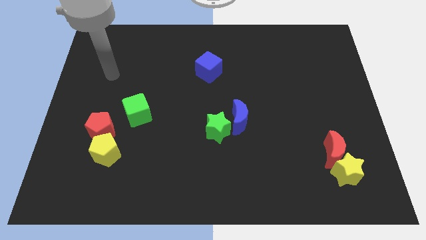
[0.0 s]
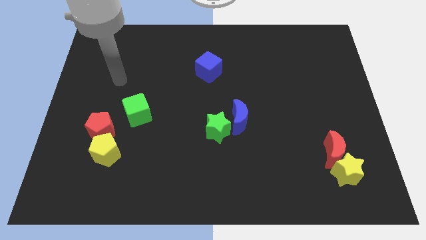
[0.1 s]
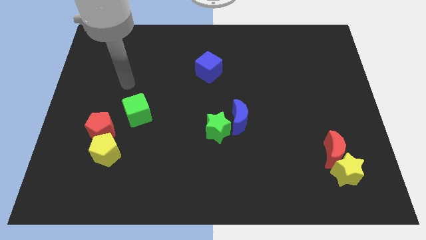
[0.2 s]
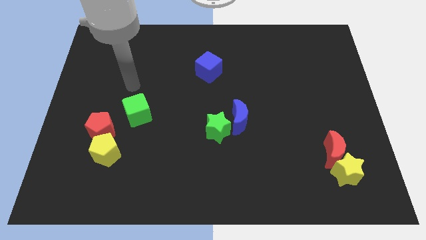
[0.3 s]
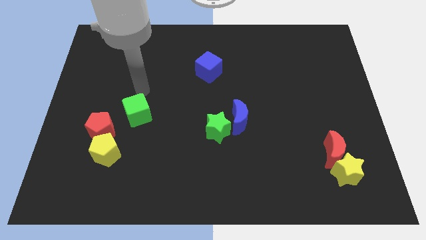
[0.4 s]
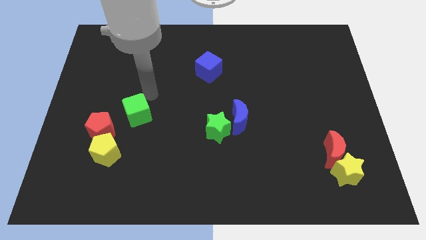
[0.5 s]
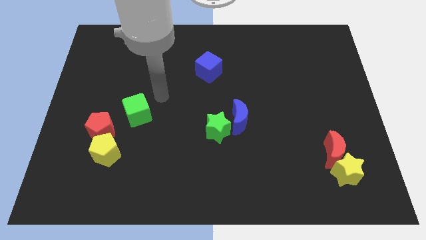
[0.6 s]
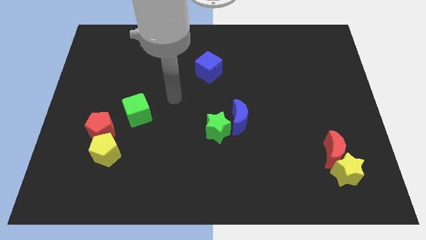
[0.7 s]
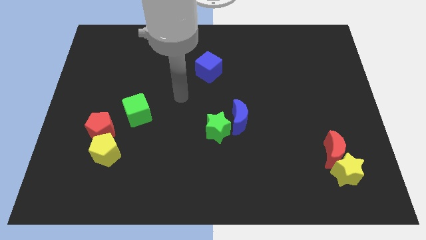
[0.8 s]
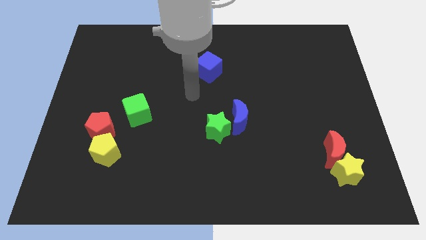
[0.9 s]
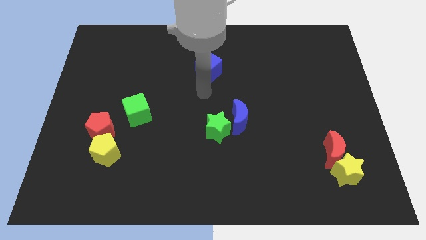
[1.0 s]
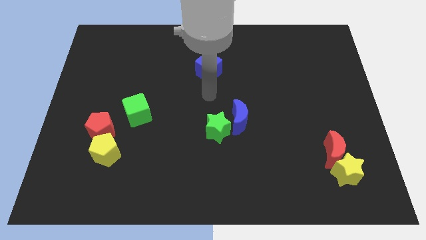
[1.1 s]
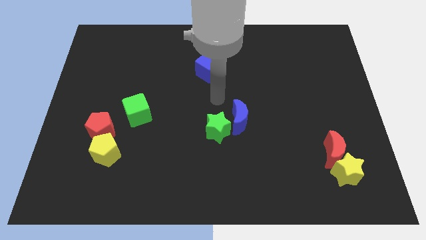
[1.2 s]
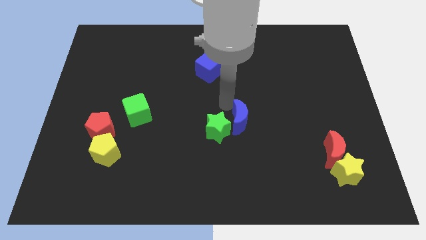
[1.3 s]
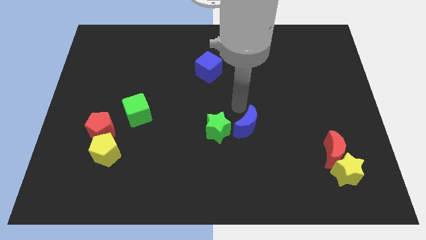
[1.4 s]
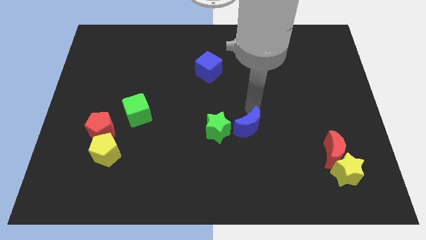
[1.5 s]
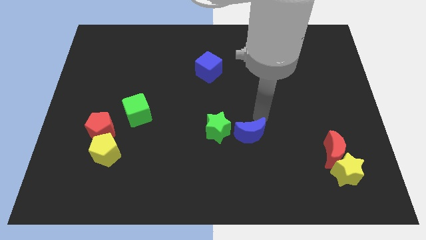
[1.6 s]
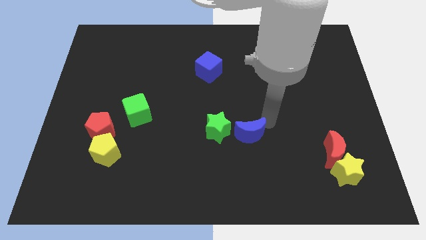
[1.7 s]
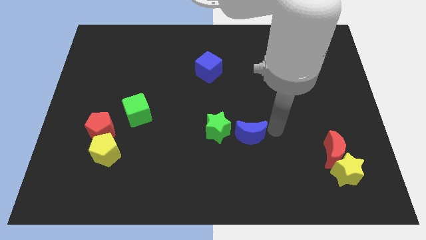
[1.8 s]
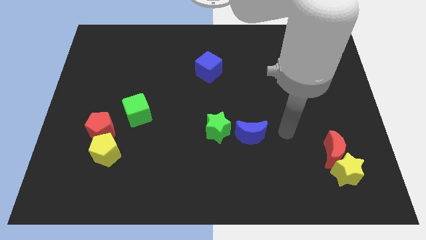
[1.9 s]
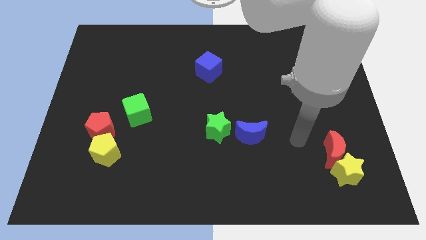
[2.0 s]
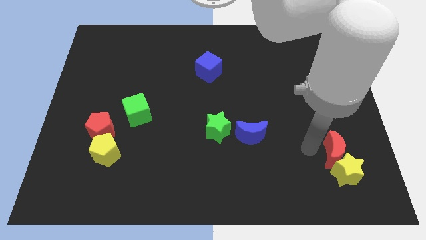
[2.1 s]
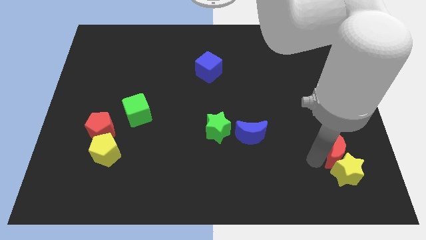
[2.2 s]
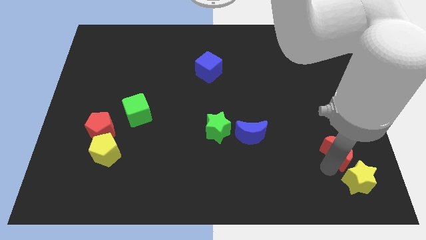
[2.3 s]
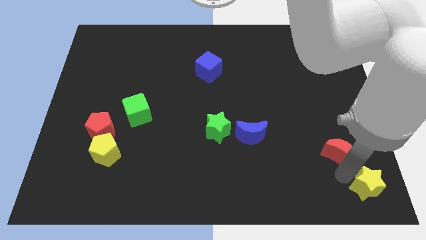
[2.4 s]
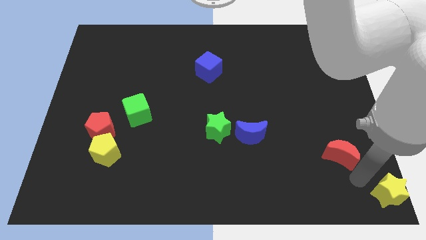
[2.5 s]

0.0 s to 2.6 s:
move the red moon away from the yellow star

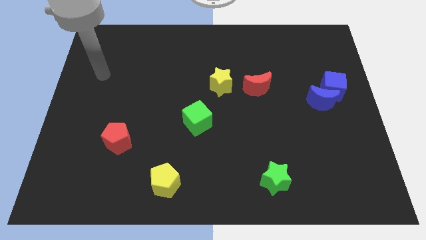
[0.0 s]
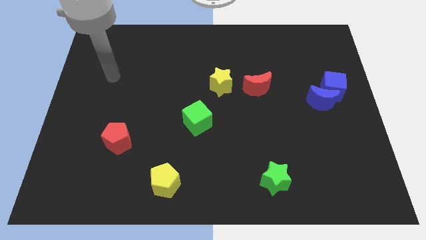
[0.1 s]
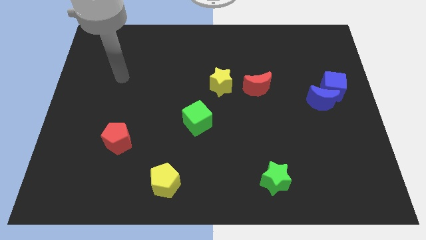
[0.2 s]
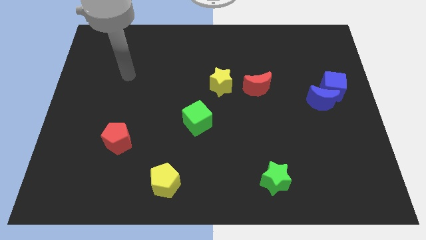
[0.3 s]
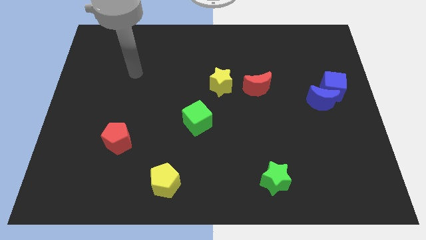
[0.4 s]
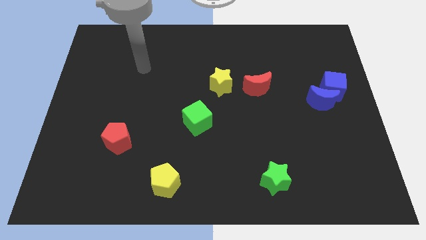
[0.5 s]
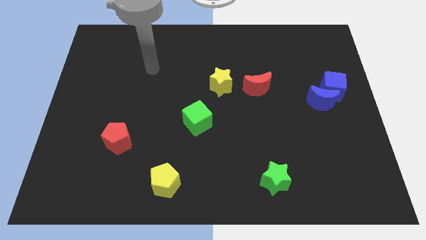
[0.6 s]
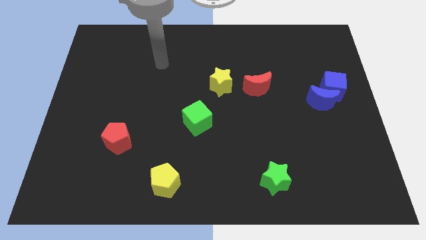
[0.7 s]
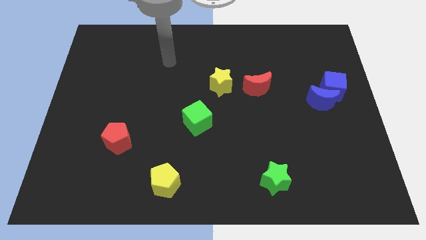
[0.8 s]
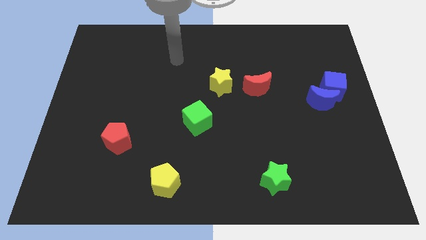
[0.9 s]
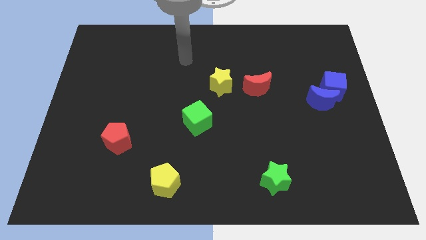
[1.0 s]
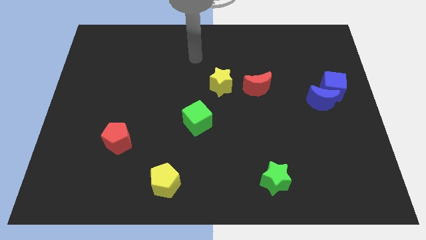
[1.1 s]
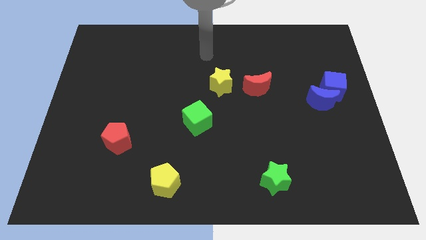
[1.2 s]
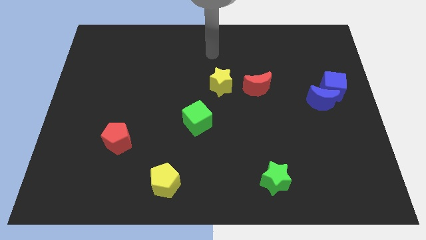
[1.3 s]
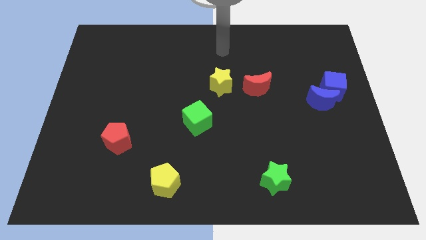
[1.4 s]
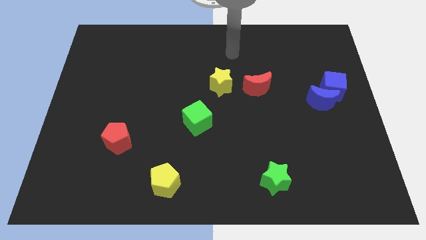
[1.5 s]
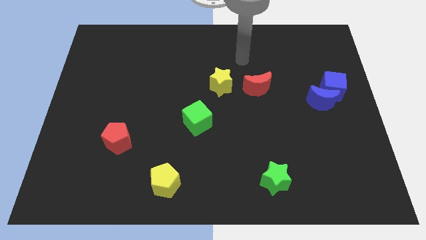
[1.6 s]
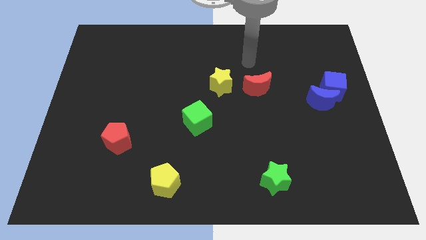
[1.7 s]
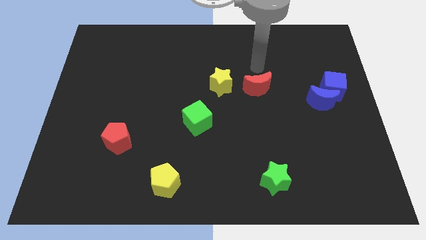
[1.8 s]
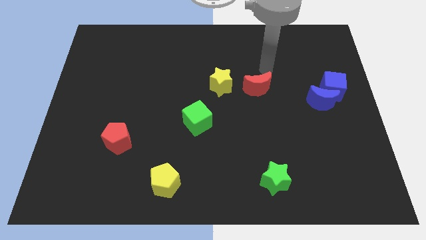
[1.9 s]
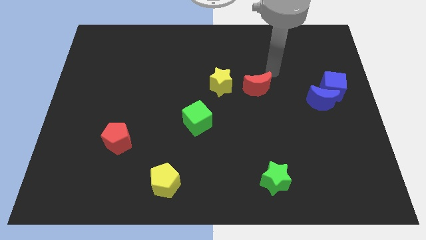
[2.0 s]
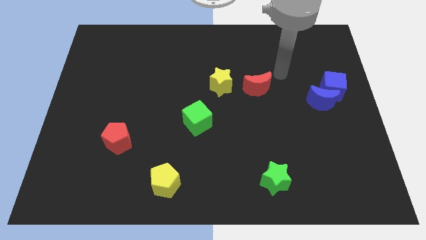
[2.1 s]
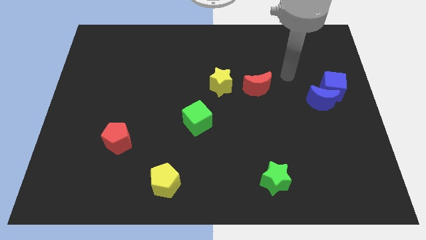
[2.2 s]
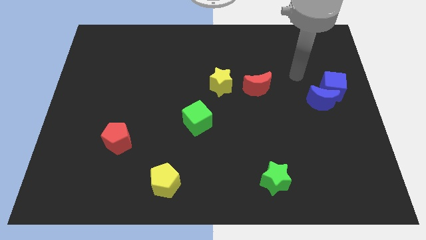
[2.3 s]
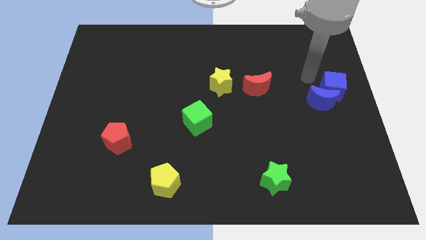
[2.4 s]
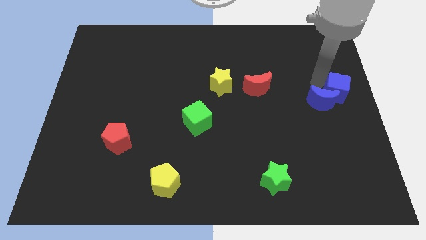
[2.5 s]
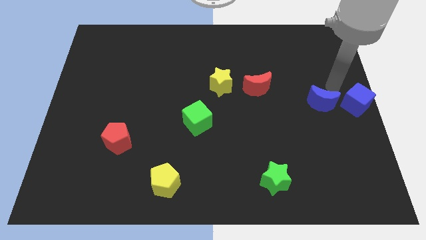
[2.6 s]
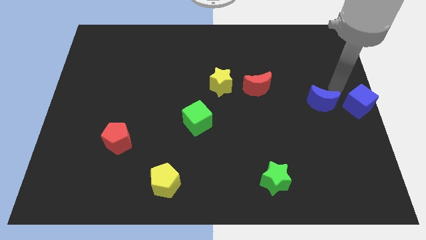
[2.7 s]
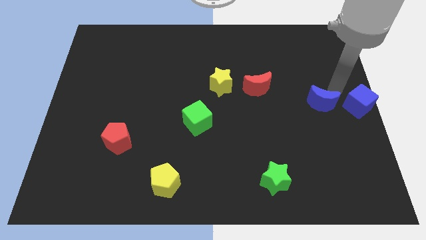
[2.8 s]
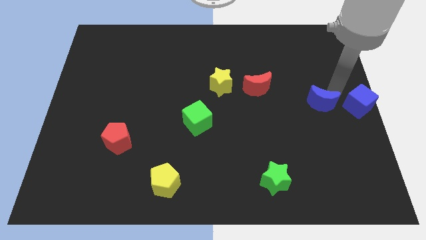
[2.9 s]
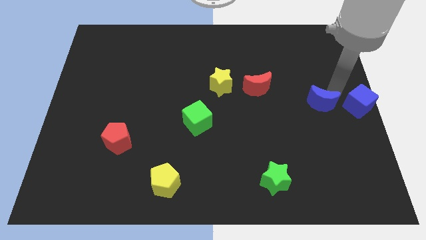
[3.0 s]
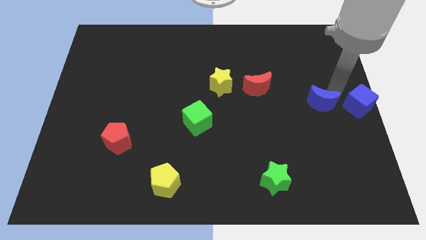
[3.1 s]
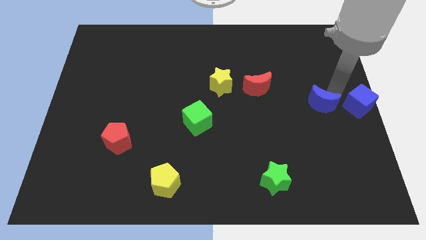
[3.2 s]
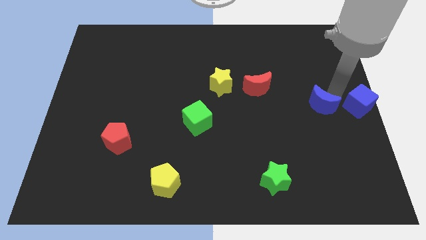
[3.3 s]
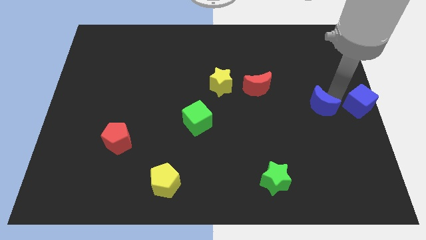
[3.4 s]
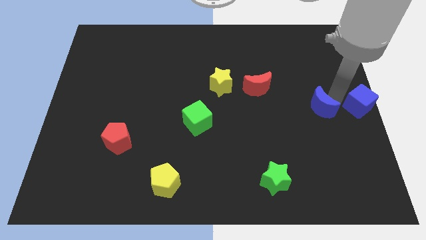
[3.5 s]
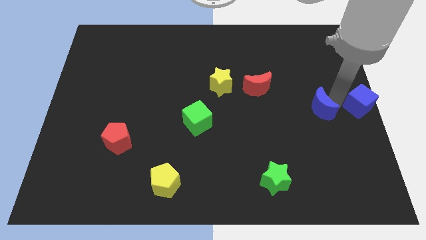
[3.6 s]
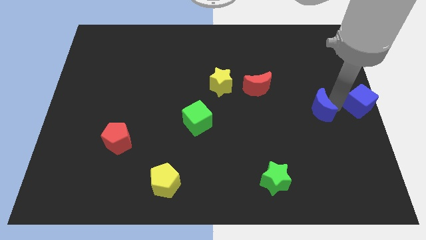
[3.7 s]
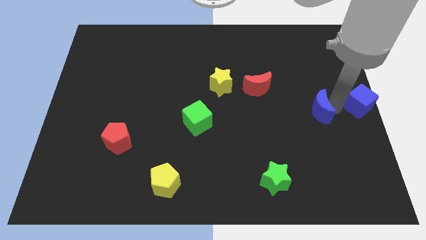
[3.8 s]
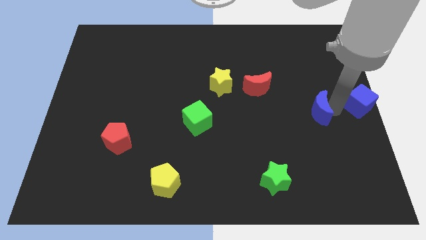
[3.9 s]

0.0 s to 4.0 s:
move the blue moon away from the blue cube

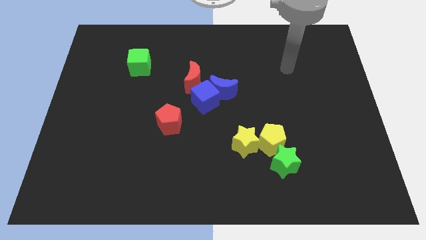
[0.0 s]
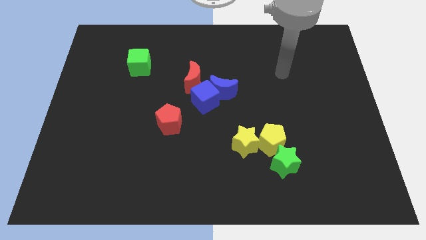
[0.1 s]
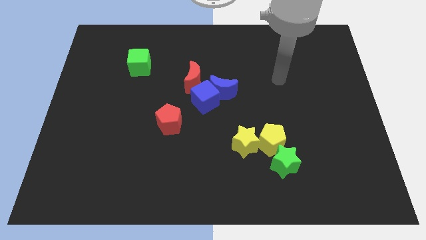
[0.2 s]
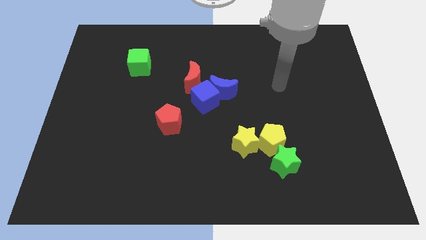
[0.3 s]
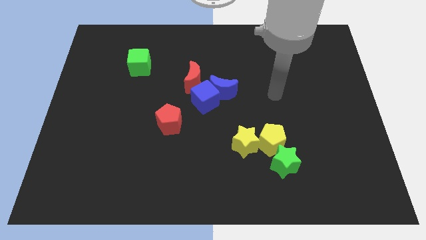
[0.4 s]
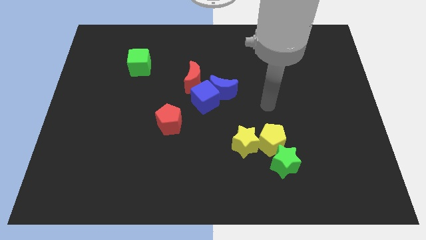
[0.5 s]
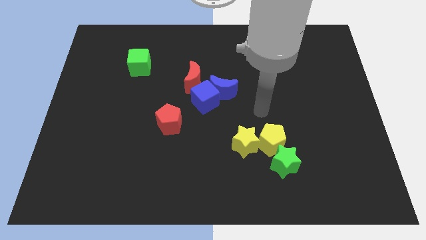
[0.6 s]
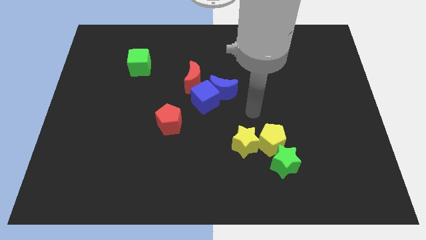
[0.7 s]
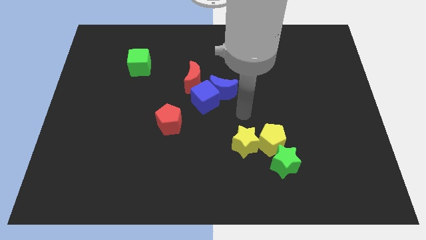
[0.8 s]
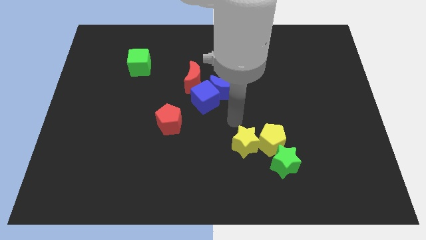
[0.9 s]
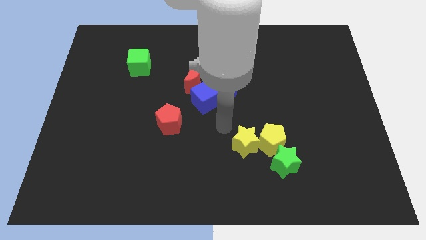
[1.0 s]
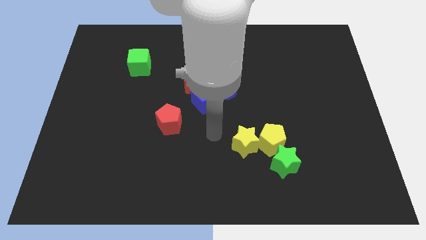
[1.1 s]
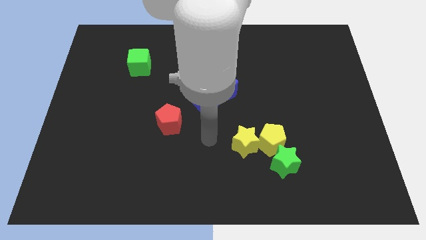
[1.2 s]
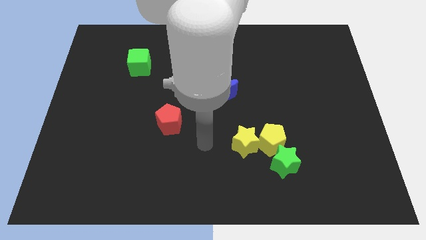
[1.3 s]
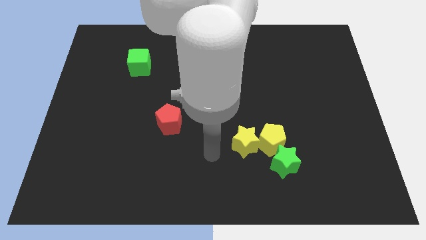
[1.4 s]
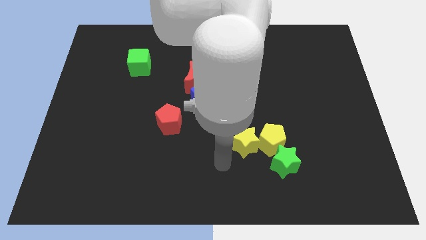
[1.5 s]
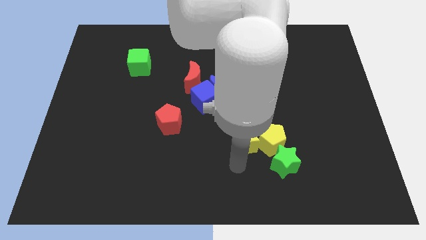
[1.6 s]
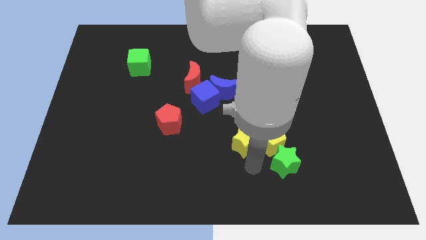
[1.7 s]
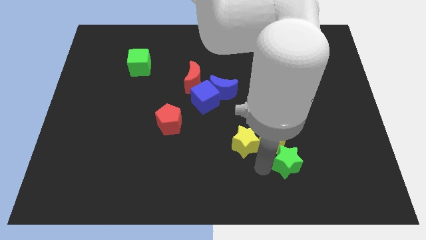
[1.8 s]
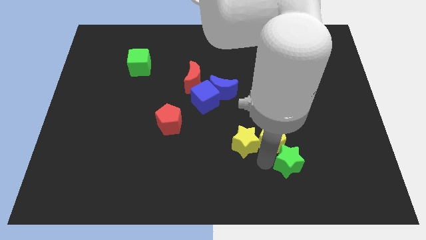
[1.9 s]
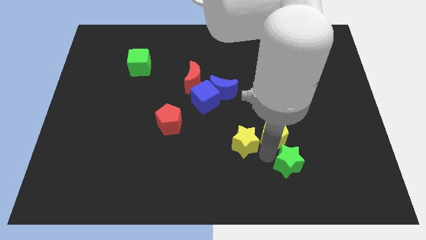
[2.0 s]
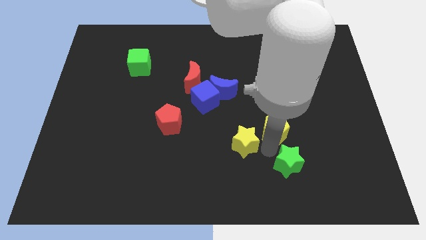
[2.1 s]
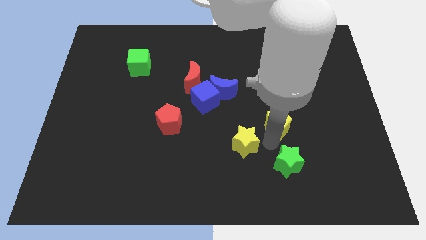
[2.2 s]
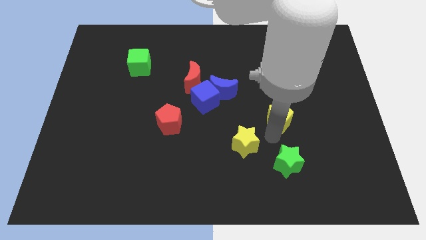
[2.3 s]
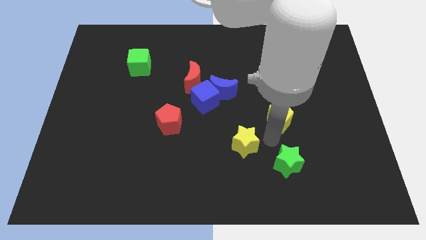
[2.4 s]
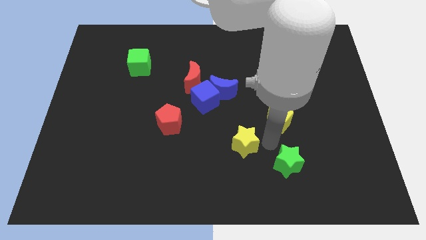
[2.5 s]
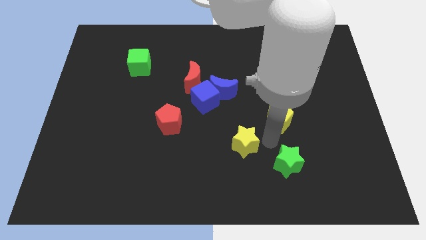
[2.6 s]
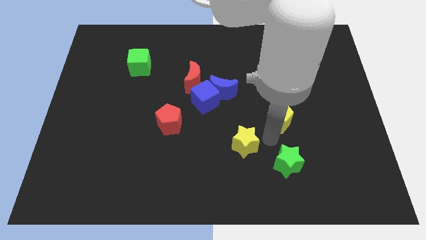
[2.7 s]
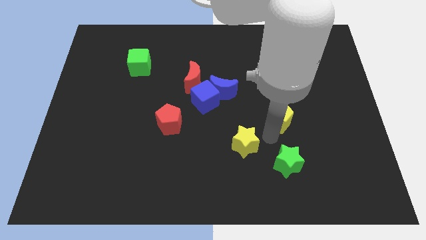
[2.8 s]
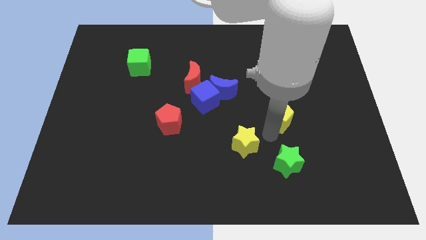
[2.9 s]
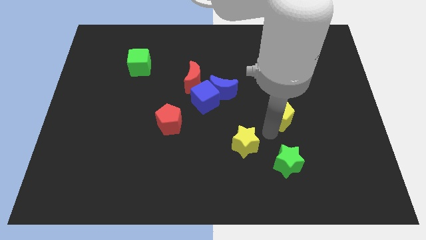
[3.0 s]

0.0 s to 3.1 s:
separate the yellow pentagon from the yellow star and green star
